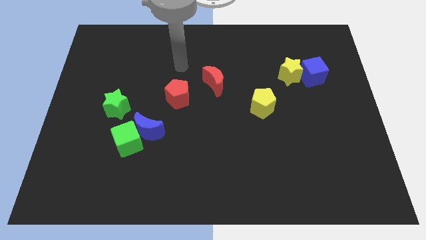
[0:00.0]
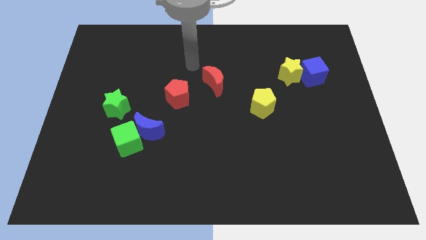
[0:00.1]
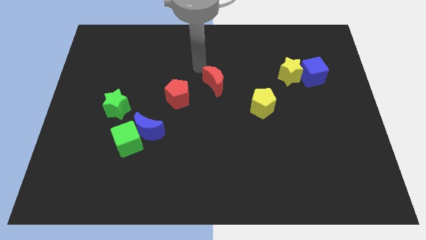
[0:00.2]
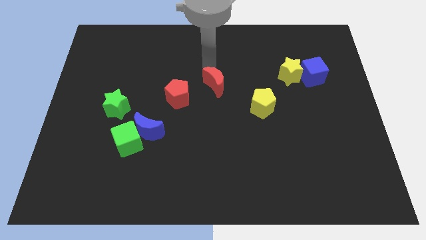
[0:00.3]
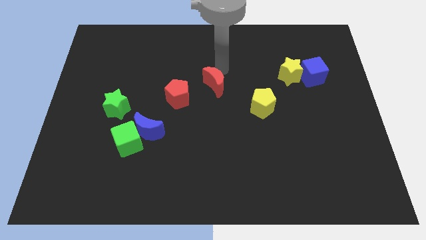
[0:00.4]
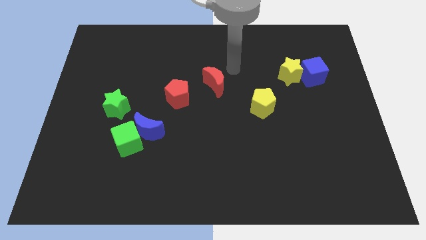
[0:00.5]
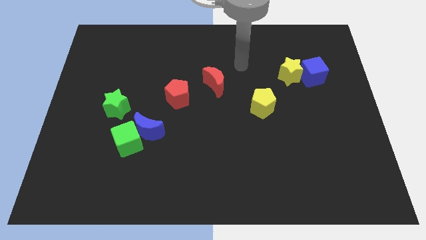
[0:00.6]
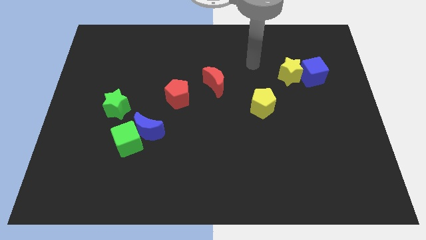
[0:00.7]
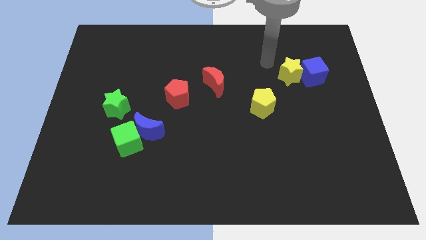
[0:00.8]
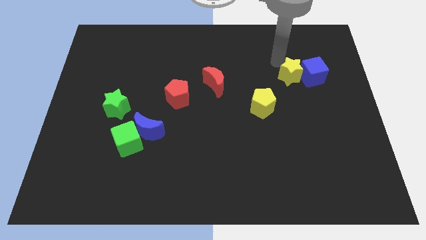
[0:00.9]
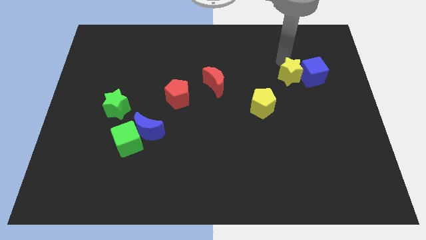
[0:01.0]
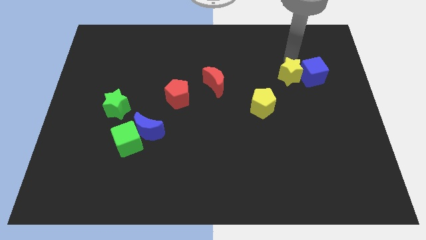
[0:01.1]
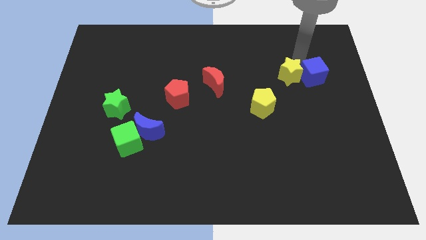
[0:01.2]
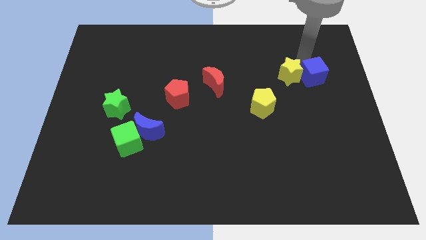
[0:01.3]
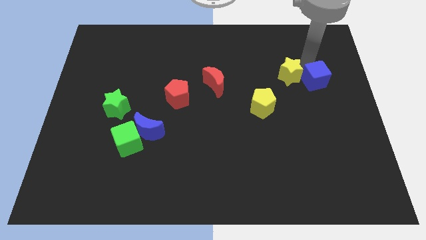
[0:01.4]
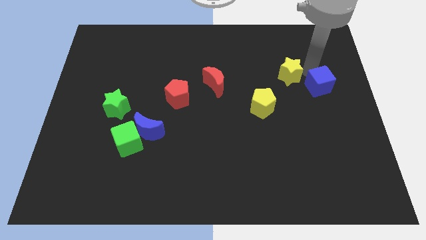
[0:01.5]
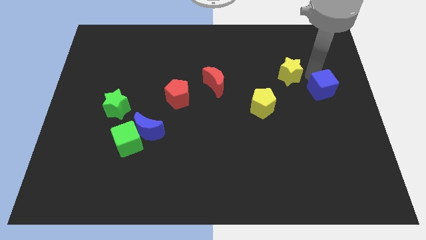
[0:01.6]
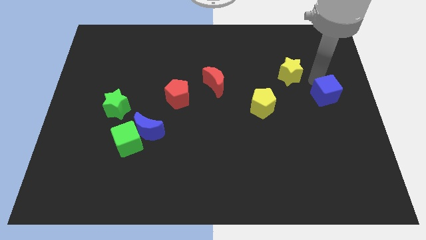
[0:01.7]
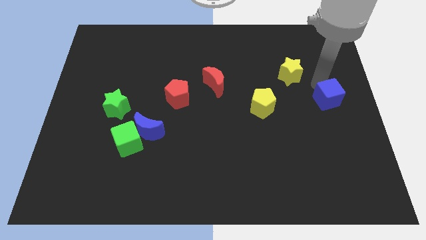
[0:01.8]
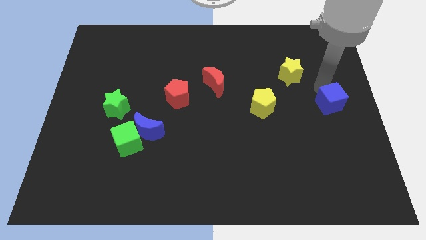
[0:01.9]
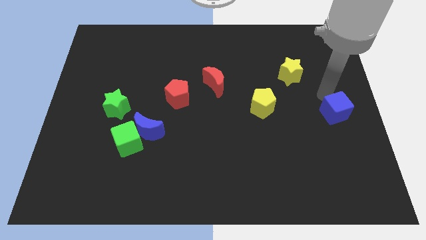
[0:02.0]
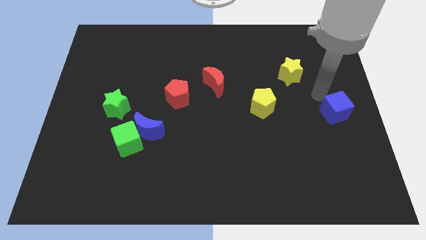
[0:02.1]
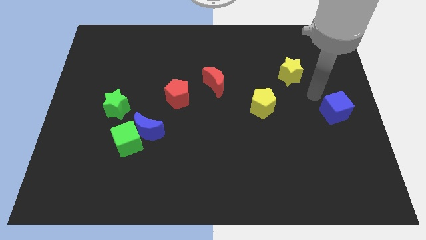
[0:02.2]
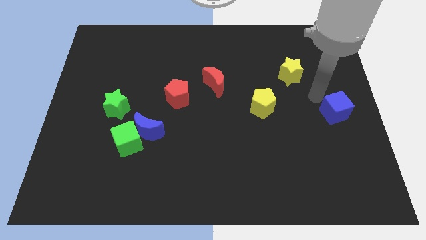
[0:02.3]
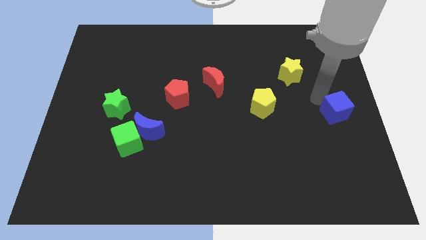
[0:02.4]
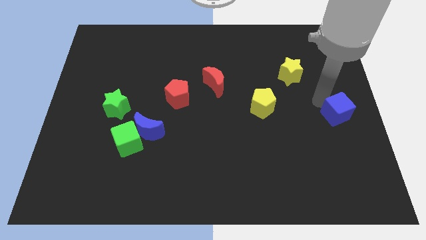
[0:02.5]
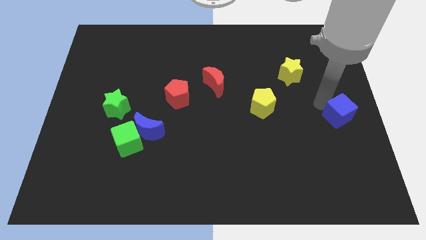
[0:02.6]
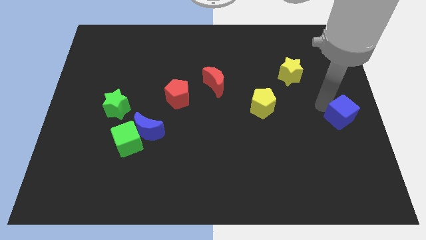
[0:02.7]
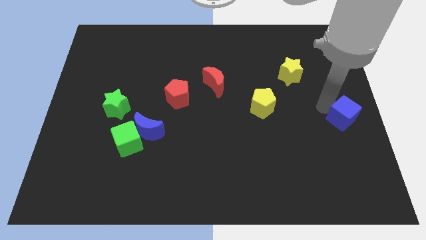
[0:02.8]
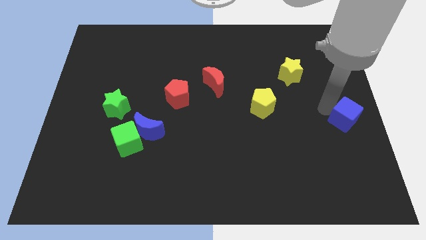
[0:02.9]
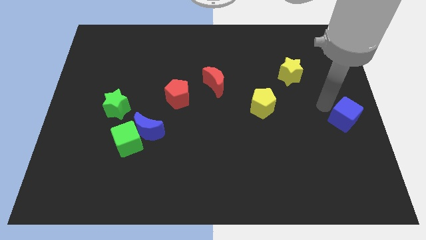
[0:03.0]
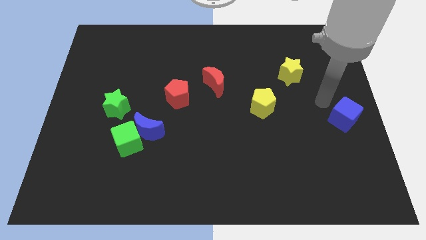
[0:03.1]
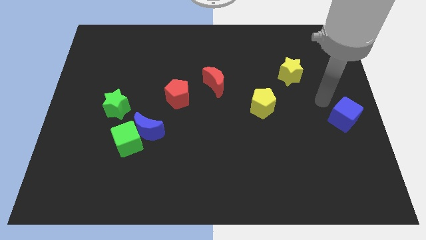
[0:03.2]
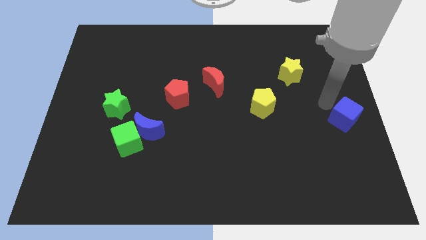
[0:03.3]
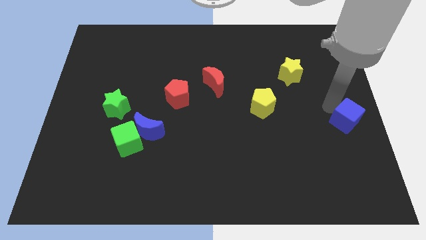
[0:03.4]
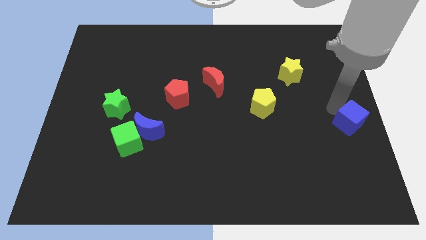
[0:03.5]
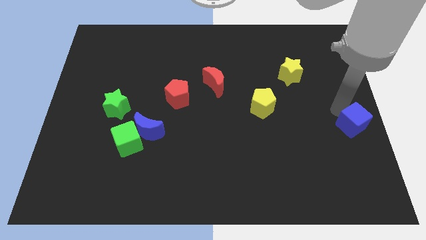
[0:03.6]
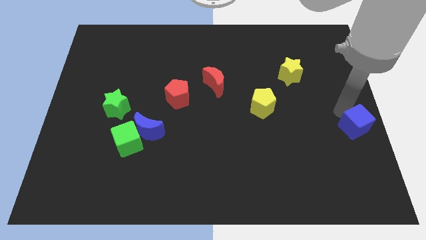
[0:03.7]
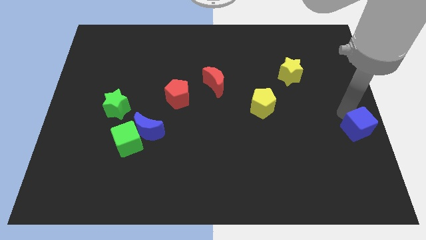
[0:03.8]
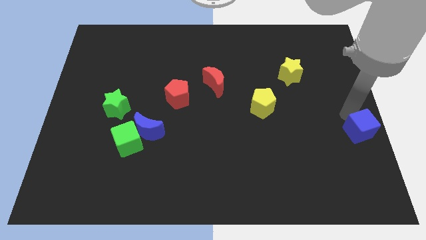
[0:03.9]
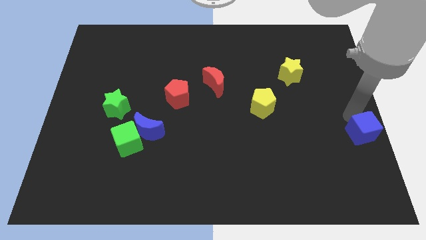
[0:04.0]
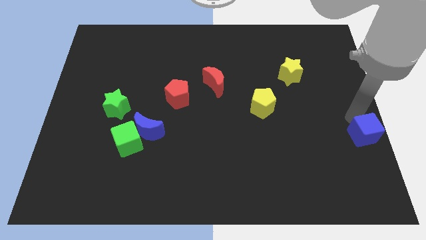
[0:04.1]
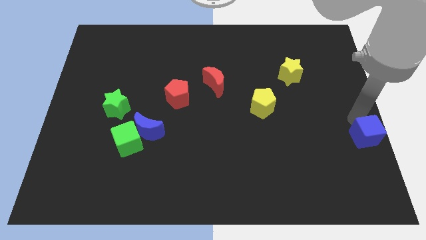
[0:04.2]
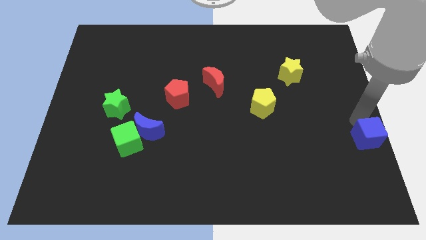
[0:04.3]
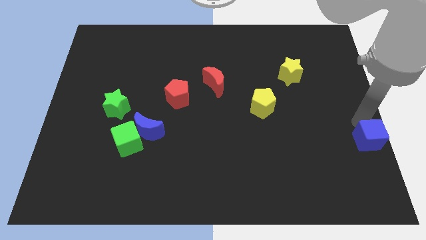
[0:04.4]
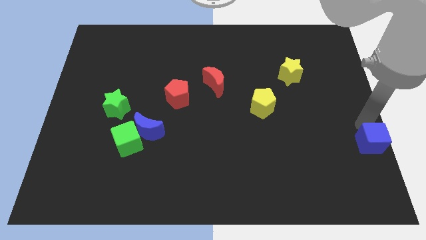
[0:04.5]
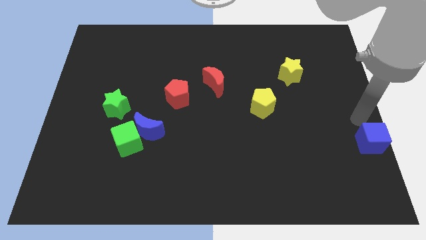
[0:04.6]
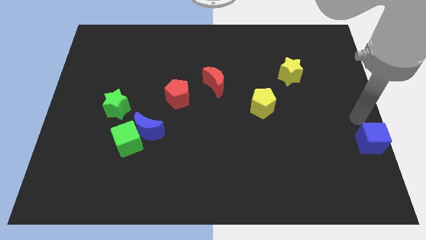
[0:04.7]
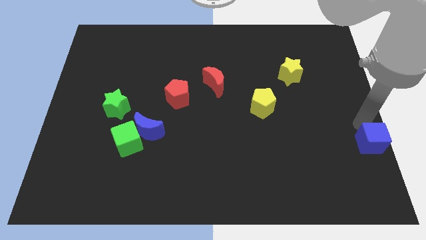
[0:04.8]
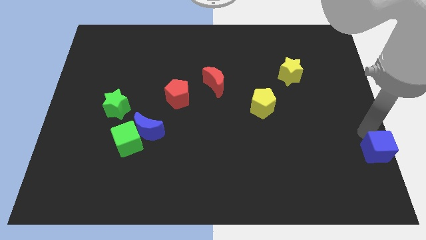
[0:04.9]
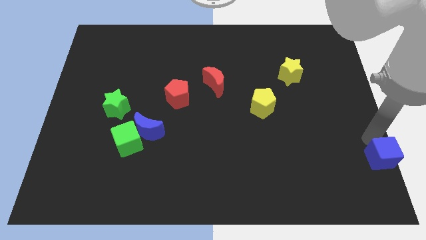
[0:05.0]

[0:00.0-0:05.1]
move the blue cube to the bottom right

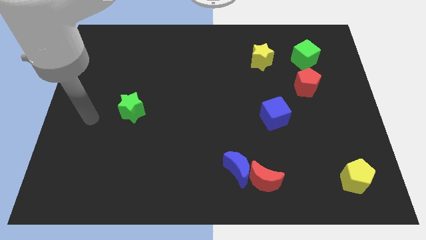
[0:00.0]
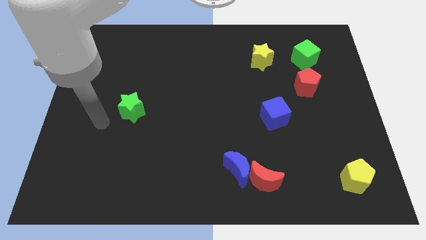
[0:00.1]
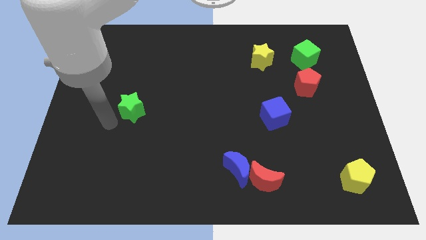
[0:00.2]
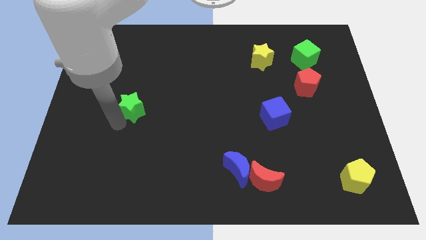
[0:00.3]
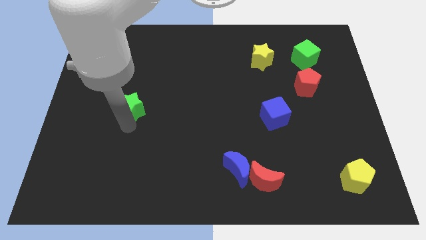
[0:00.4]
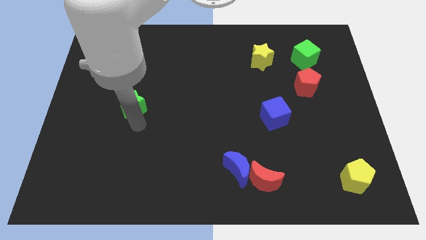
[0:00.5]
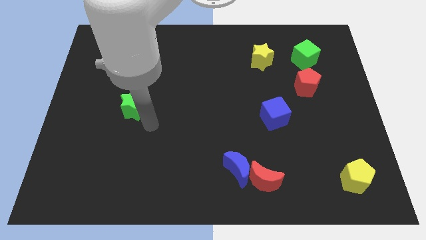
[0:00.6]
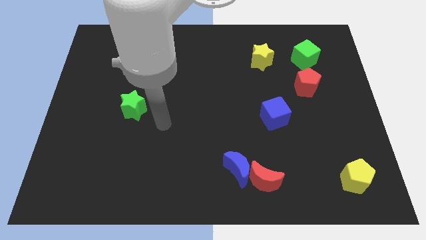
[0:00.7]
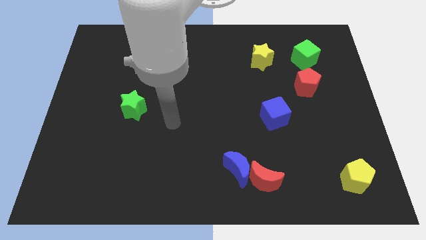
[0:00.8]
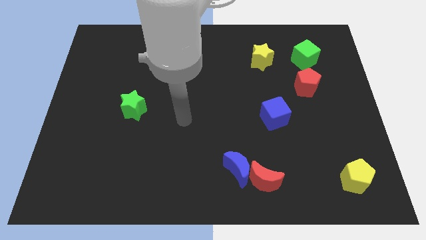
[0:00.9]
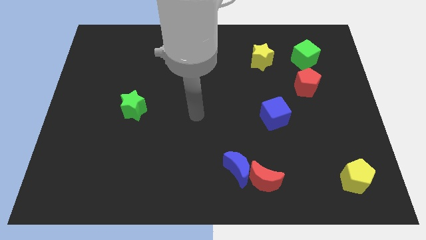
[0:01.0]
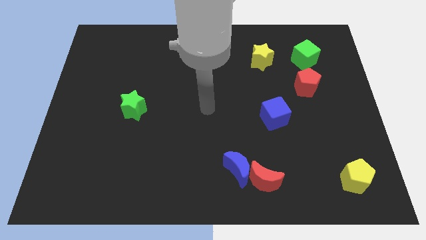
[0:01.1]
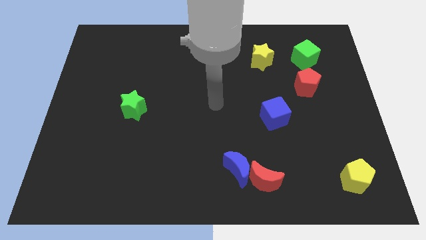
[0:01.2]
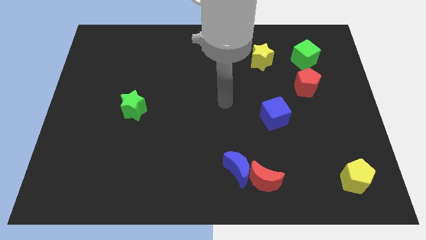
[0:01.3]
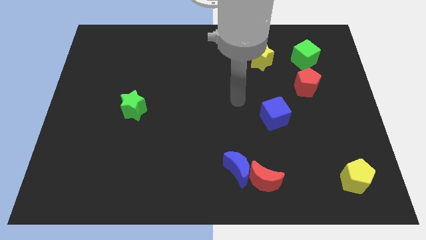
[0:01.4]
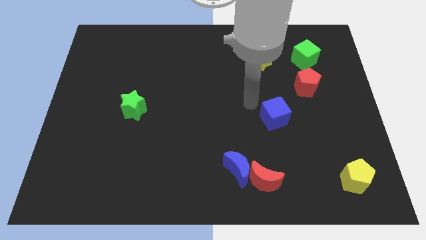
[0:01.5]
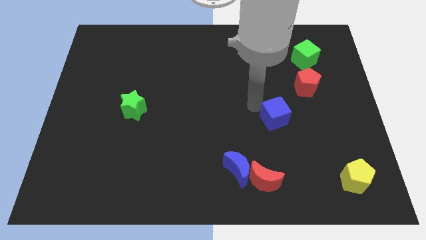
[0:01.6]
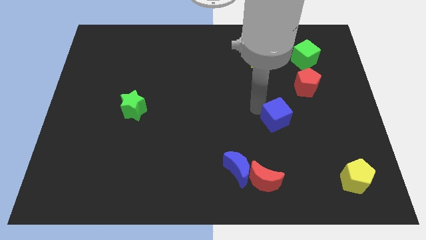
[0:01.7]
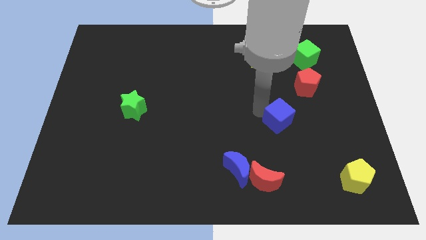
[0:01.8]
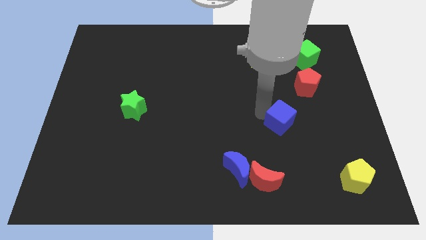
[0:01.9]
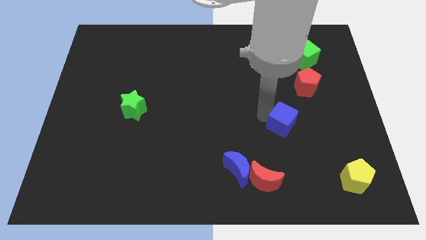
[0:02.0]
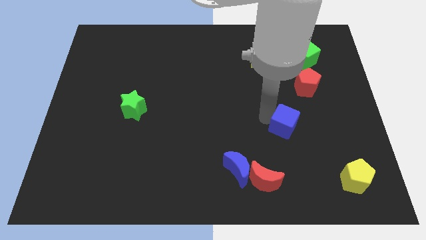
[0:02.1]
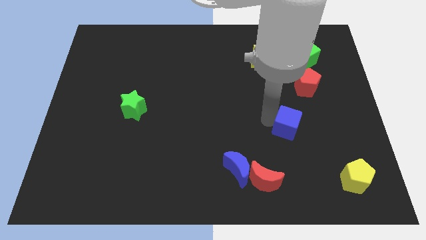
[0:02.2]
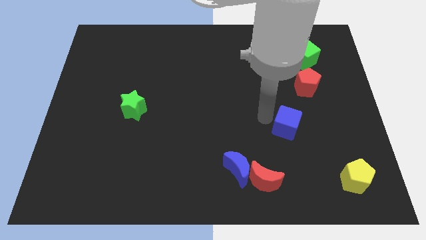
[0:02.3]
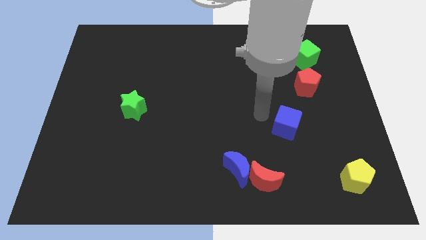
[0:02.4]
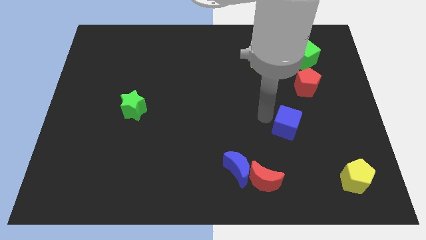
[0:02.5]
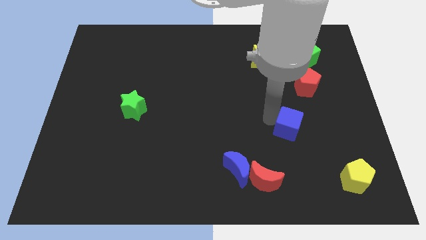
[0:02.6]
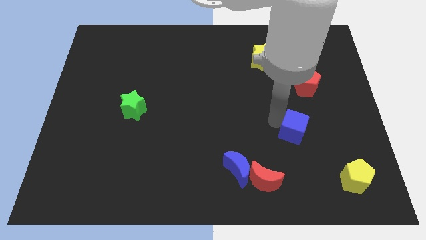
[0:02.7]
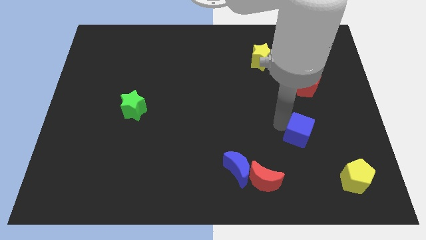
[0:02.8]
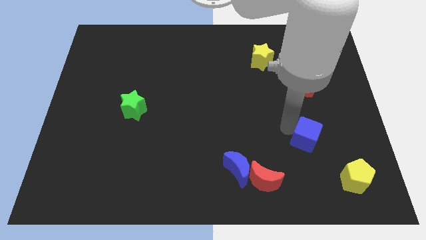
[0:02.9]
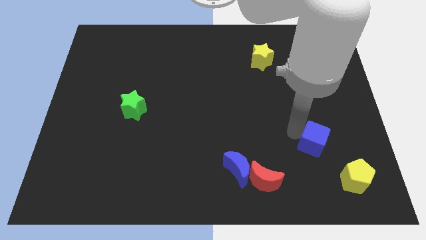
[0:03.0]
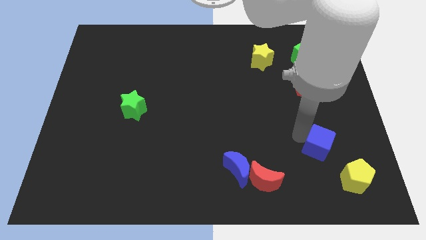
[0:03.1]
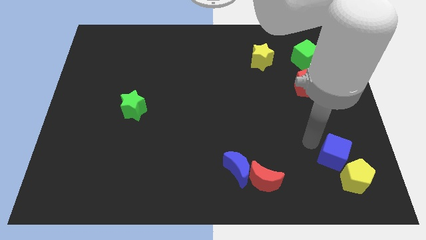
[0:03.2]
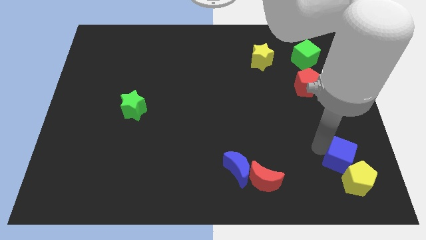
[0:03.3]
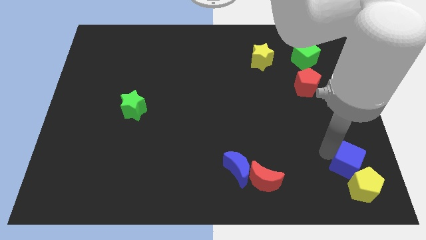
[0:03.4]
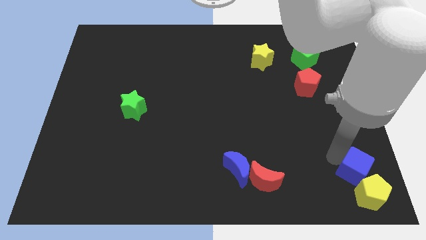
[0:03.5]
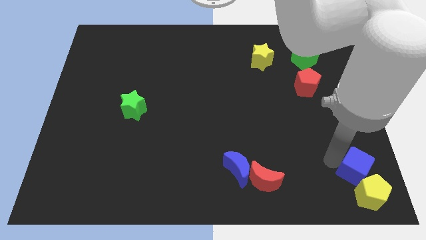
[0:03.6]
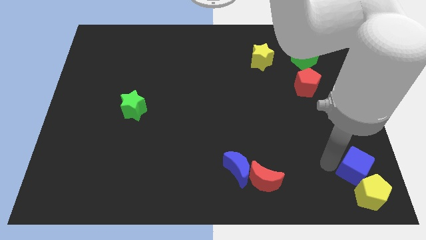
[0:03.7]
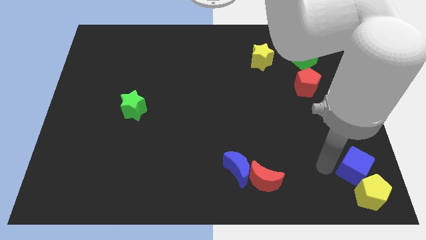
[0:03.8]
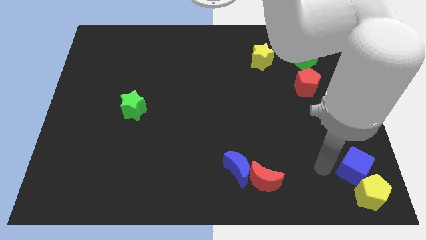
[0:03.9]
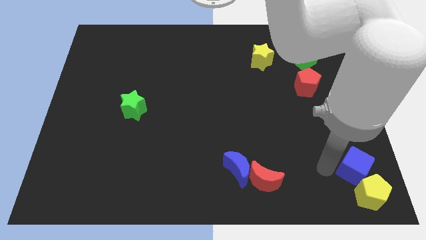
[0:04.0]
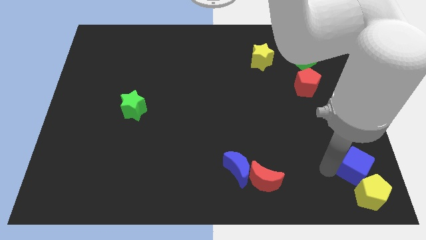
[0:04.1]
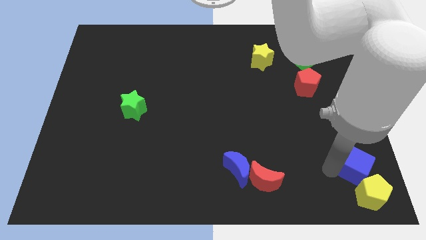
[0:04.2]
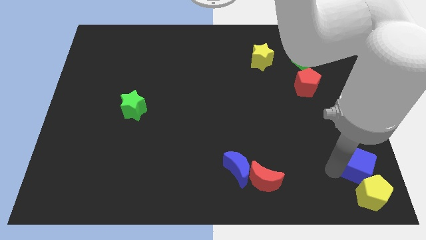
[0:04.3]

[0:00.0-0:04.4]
slide the blue cube to the bottom right of the board
